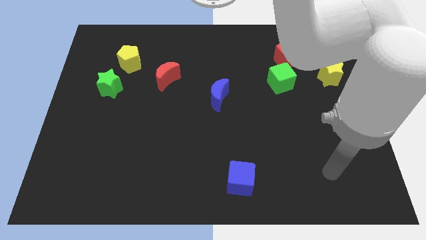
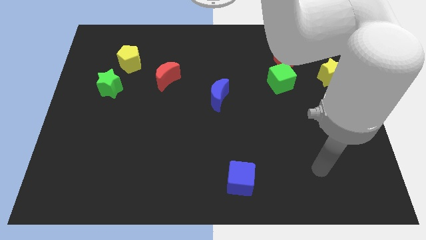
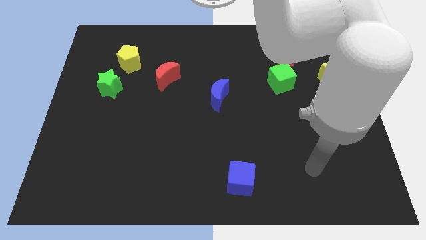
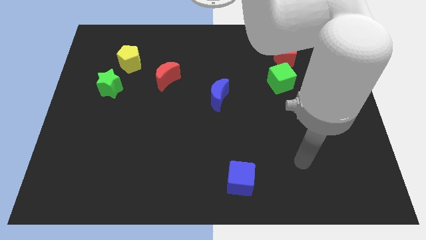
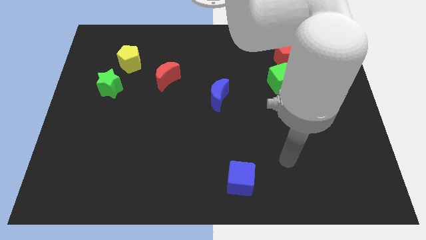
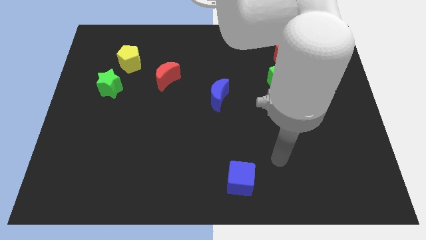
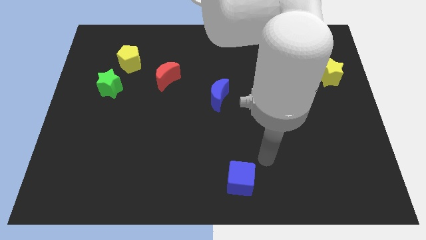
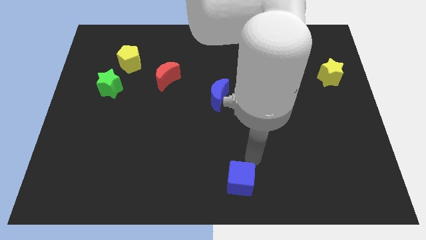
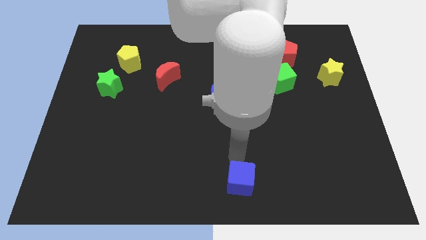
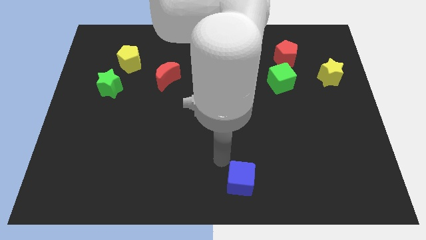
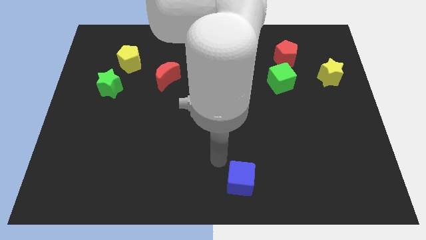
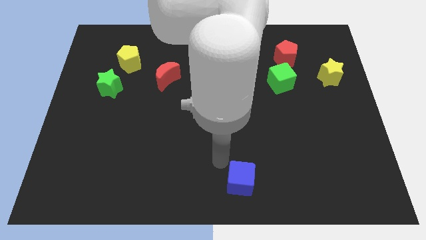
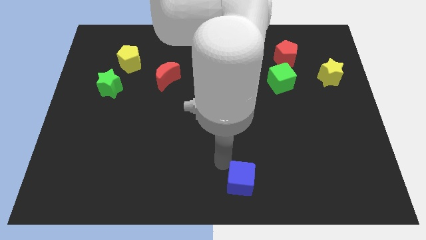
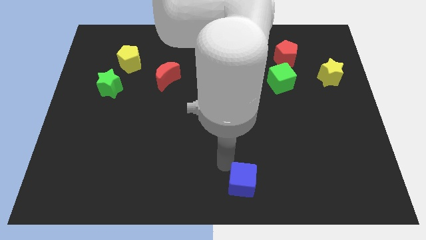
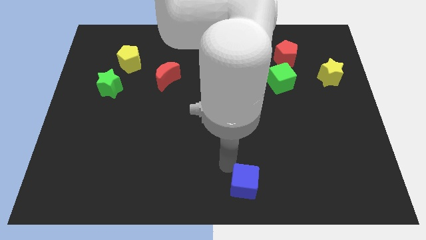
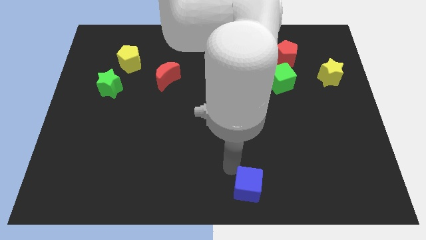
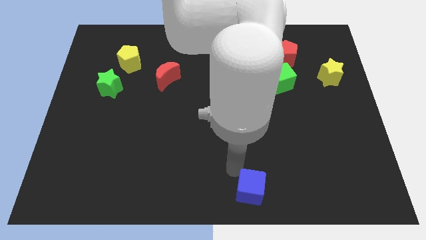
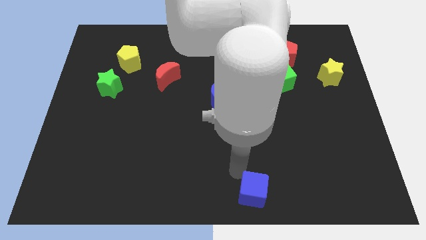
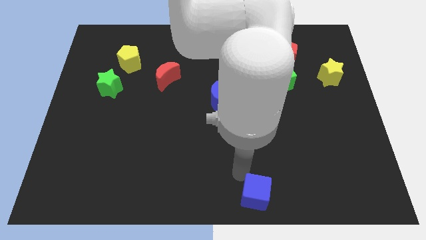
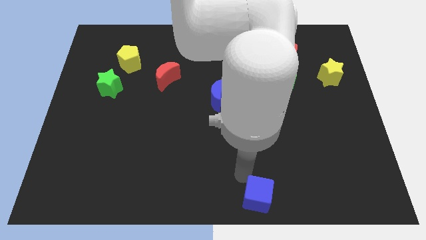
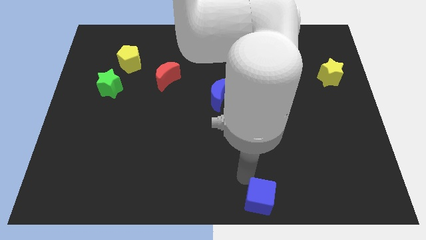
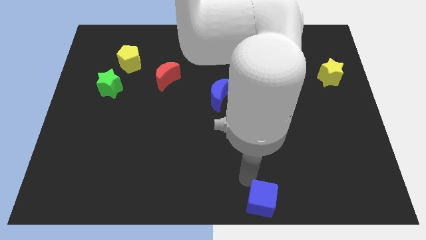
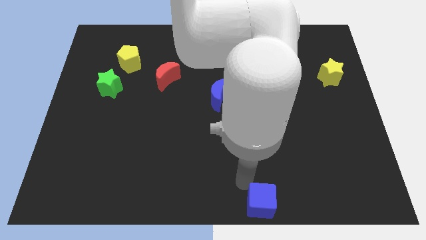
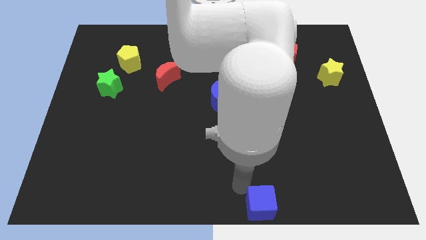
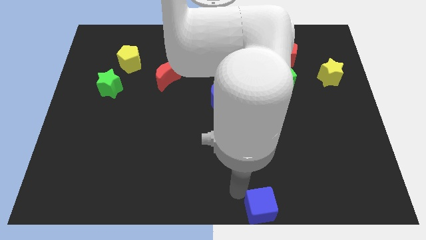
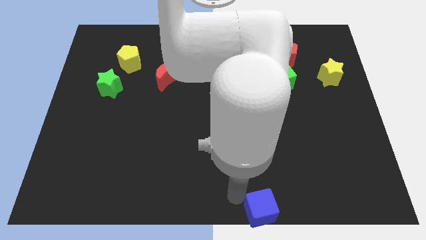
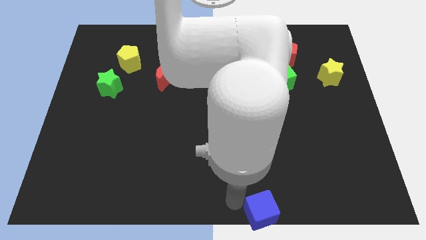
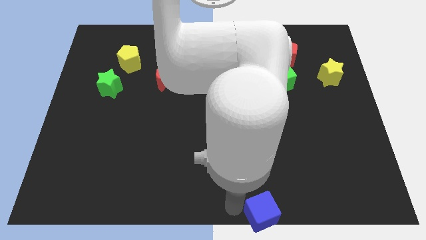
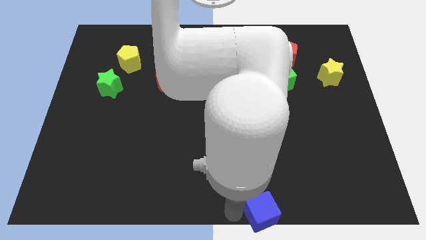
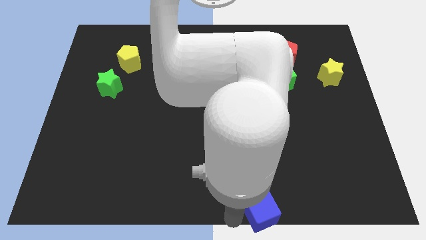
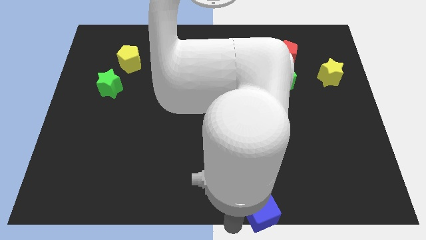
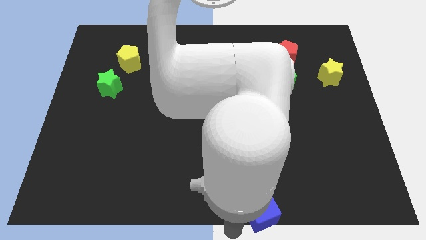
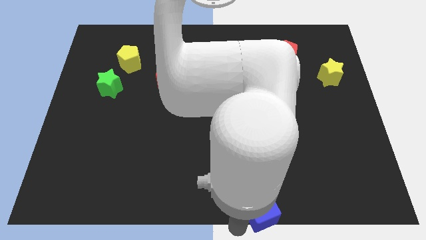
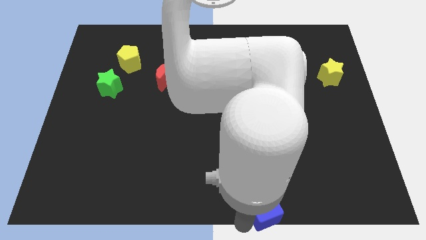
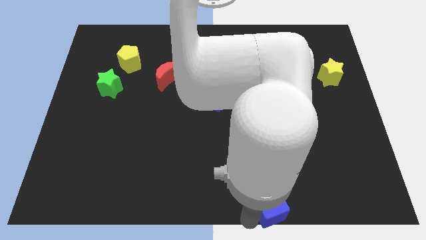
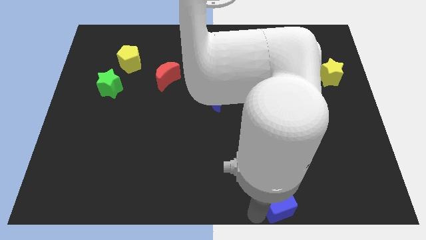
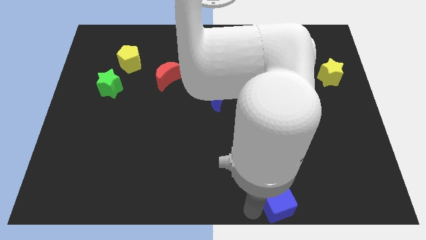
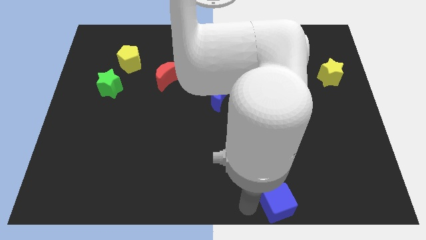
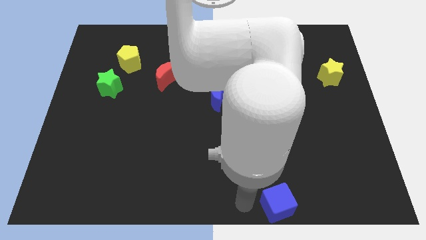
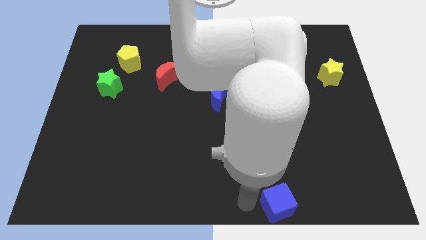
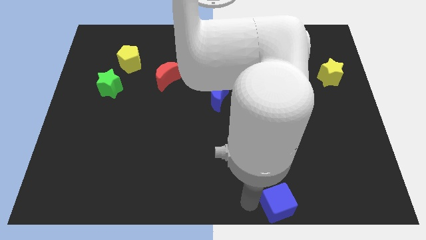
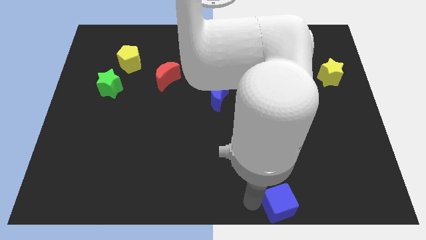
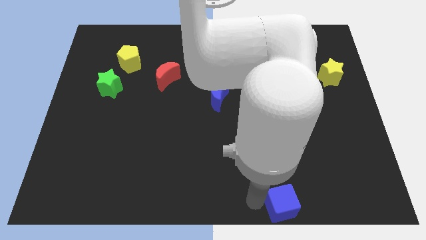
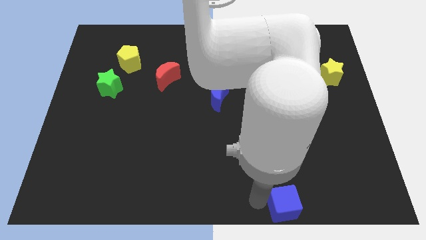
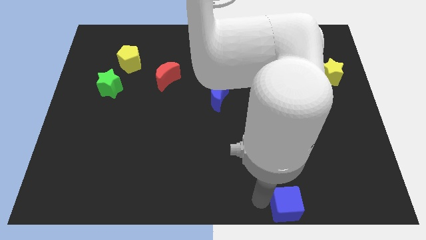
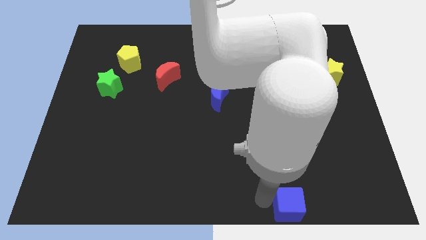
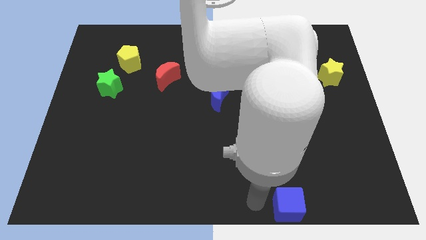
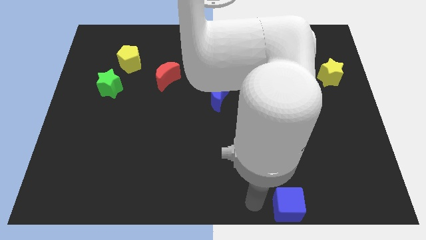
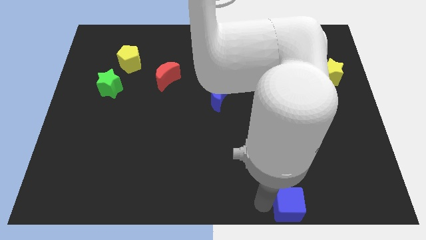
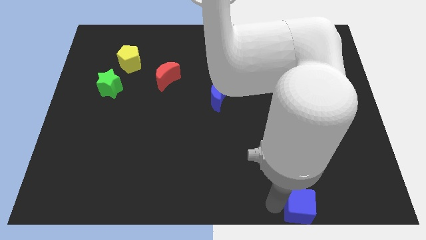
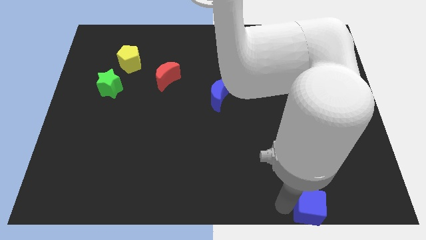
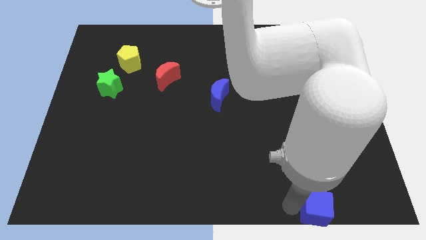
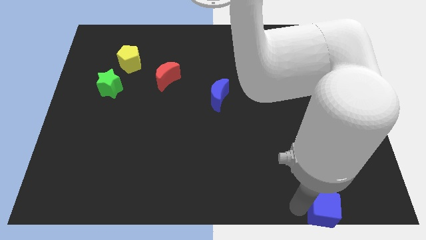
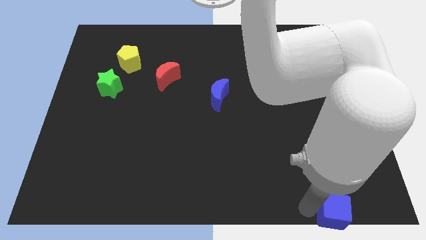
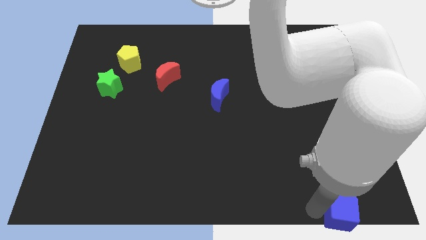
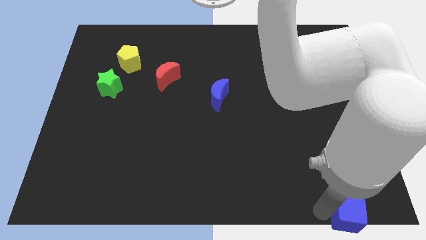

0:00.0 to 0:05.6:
push the blue cube to the bottom right
